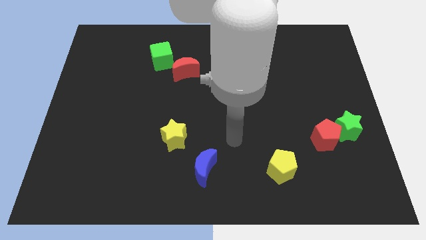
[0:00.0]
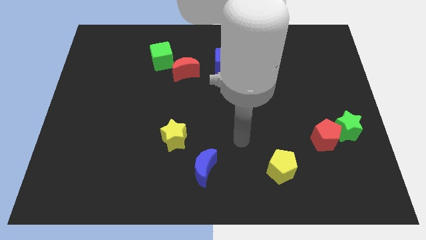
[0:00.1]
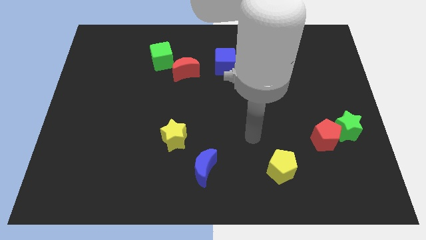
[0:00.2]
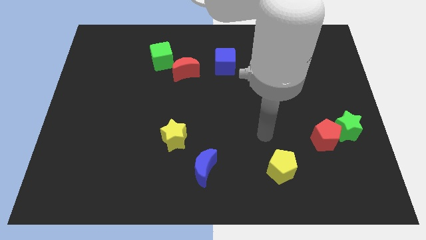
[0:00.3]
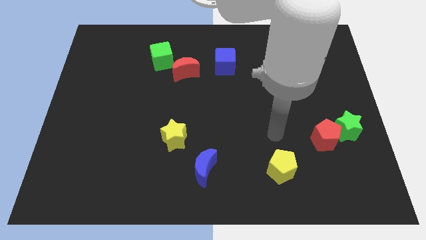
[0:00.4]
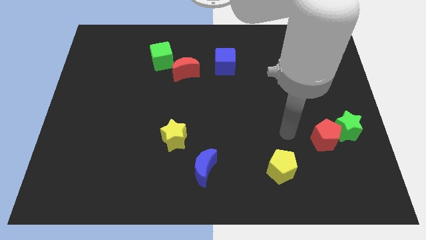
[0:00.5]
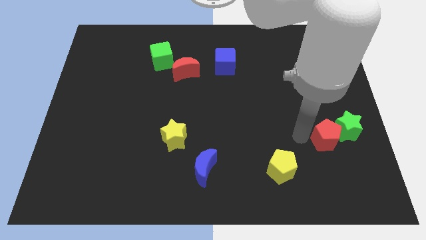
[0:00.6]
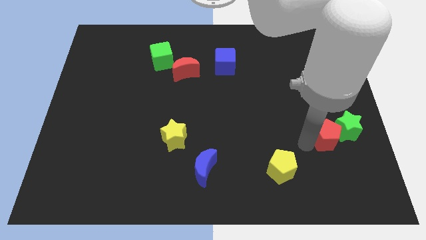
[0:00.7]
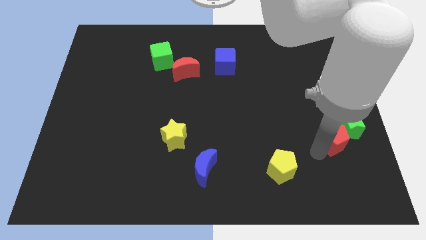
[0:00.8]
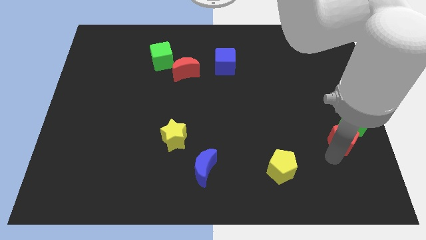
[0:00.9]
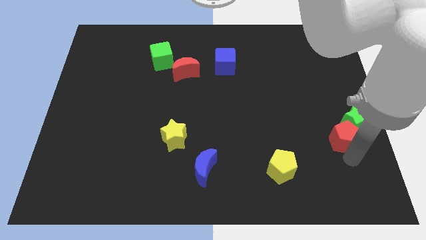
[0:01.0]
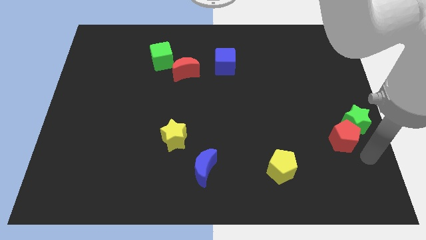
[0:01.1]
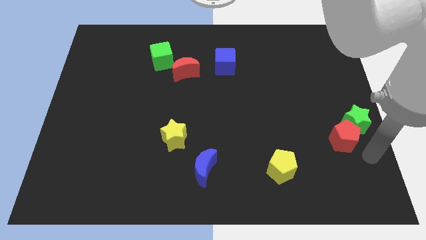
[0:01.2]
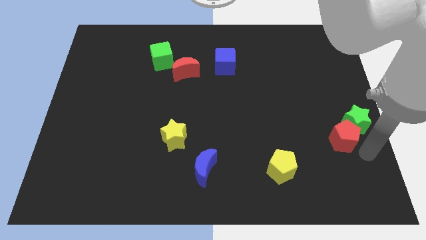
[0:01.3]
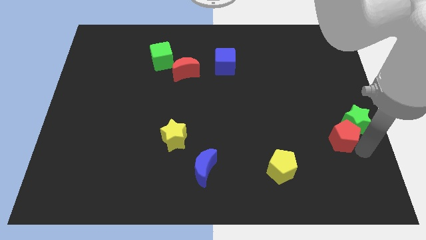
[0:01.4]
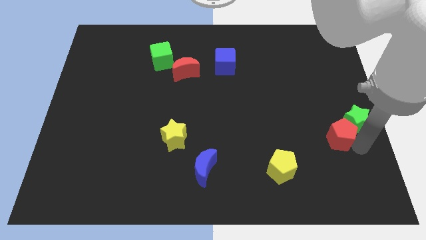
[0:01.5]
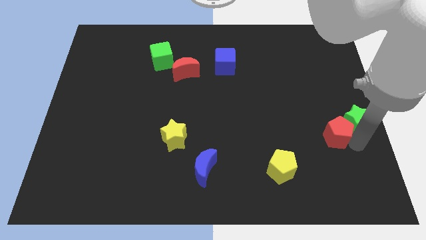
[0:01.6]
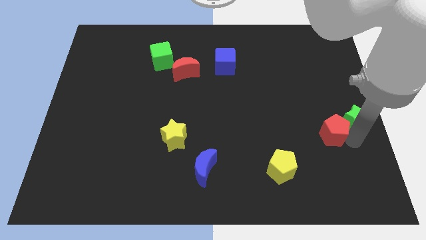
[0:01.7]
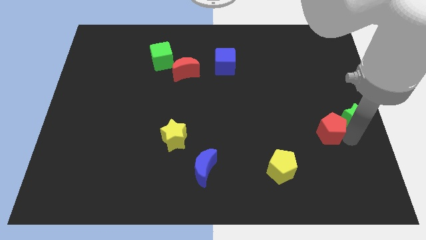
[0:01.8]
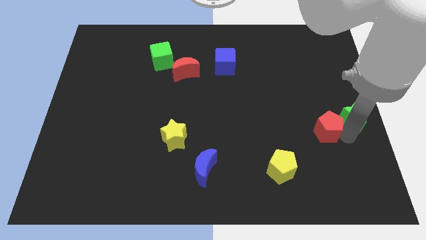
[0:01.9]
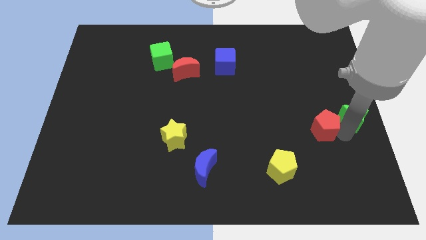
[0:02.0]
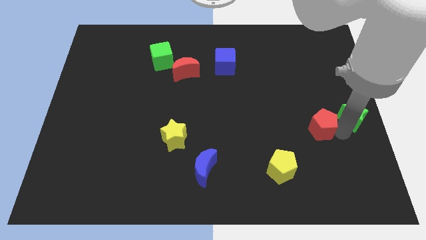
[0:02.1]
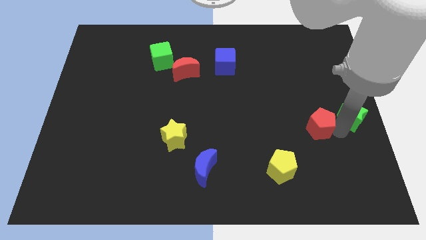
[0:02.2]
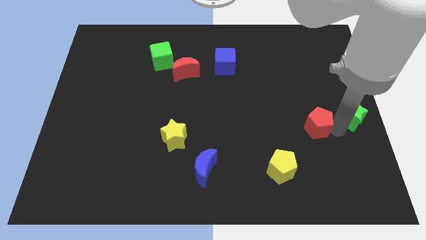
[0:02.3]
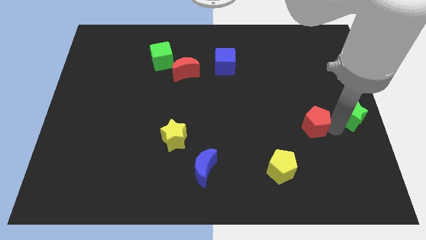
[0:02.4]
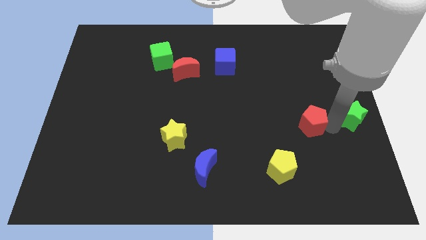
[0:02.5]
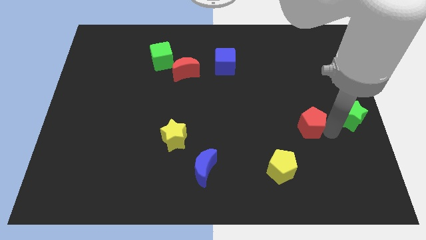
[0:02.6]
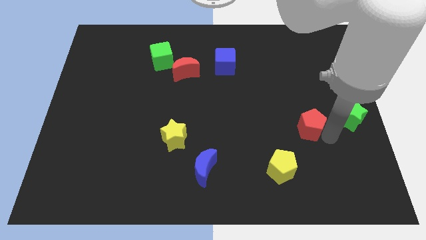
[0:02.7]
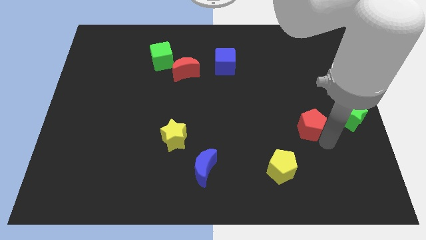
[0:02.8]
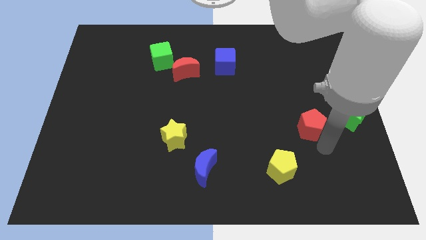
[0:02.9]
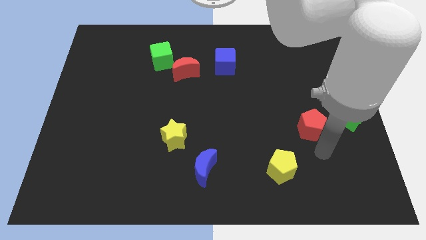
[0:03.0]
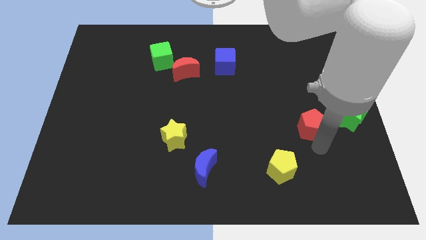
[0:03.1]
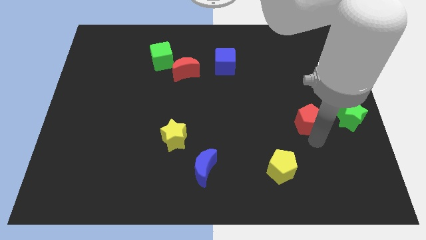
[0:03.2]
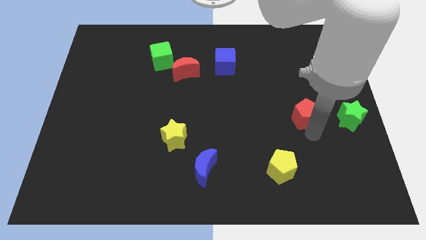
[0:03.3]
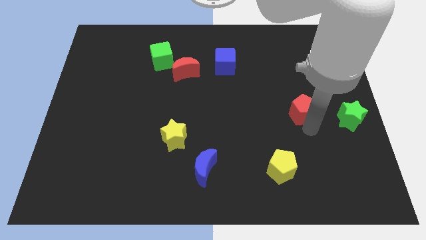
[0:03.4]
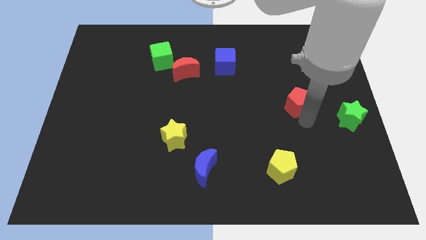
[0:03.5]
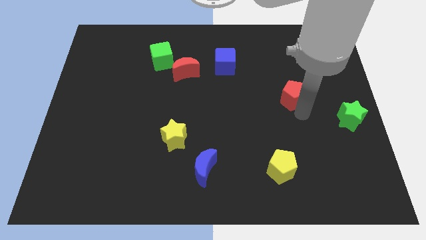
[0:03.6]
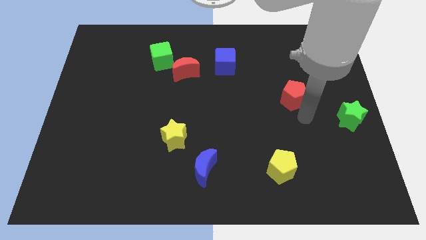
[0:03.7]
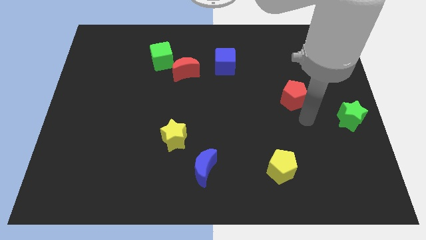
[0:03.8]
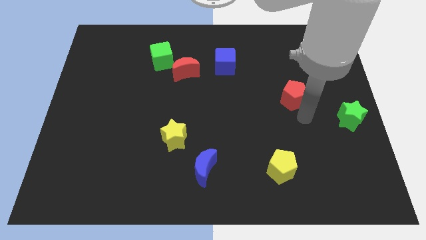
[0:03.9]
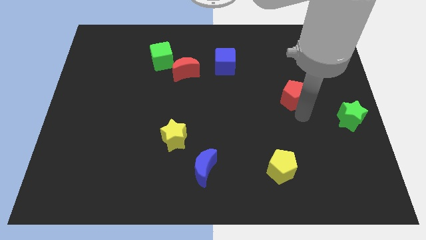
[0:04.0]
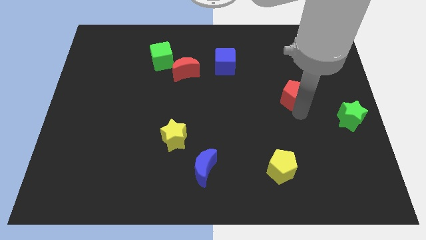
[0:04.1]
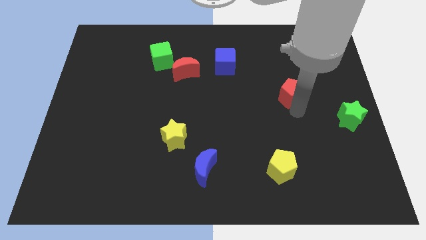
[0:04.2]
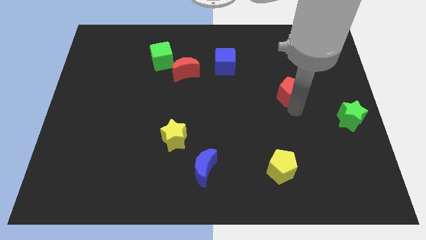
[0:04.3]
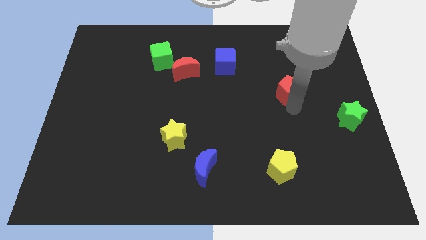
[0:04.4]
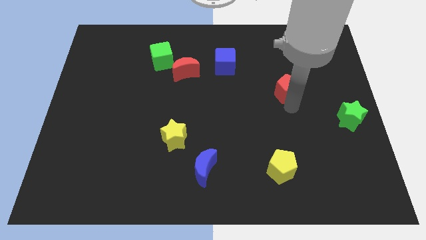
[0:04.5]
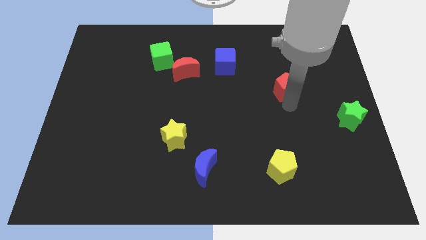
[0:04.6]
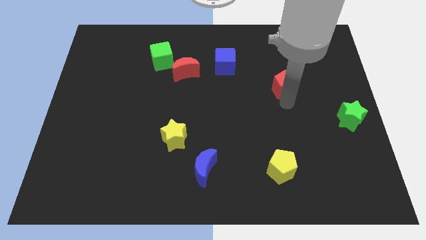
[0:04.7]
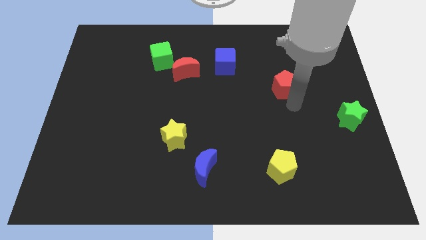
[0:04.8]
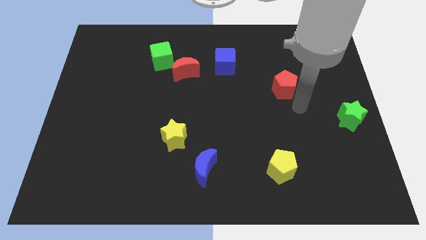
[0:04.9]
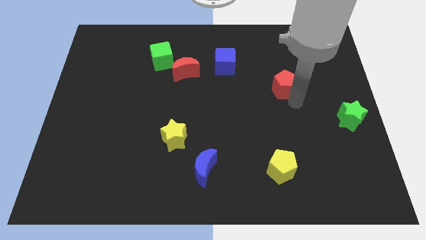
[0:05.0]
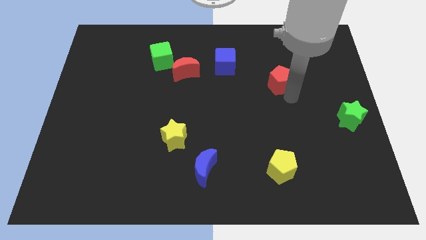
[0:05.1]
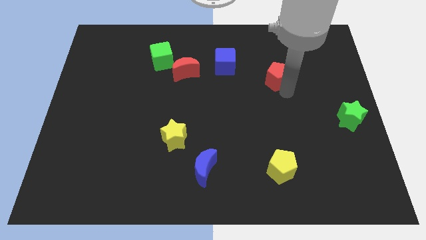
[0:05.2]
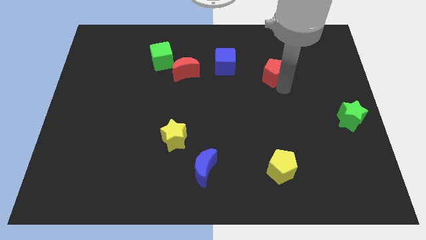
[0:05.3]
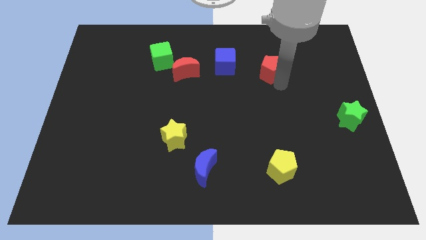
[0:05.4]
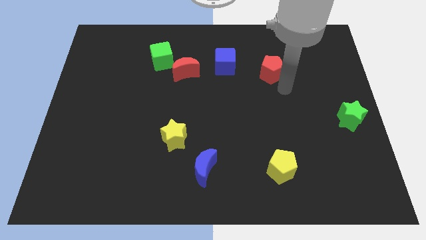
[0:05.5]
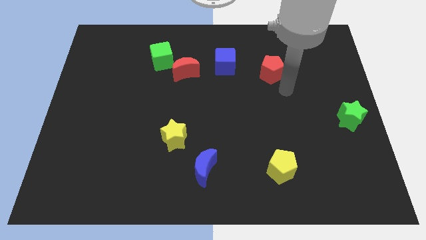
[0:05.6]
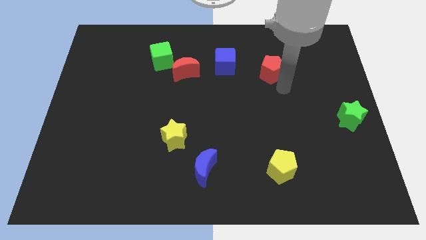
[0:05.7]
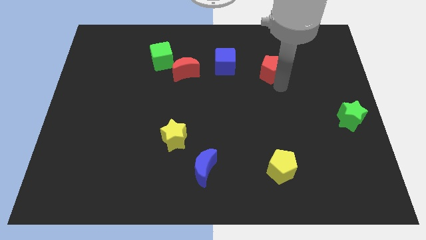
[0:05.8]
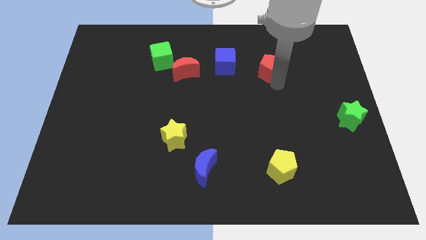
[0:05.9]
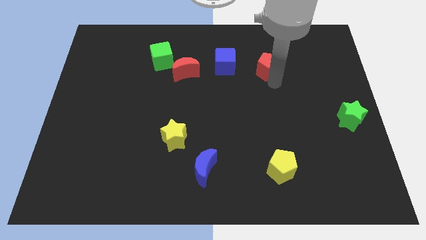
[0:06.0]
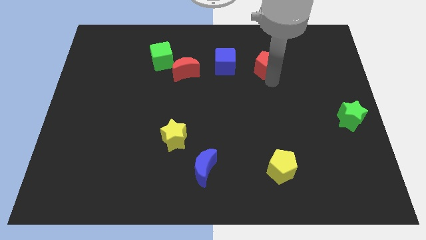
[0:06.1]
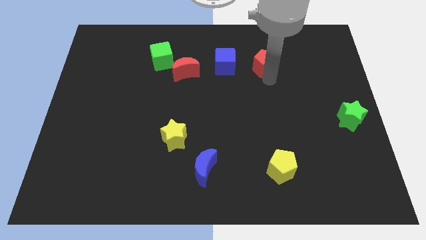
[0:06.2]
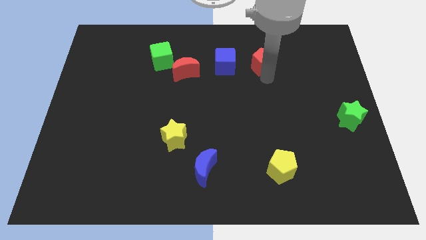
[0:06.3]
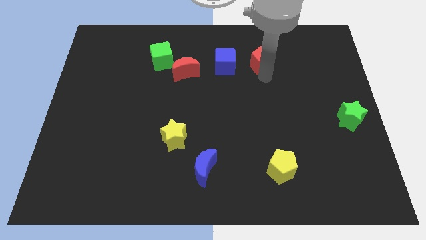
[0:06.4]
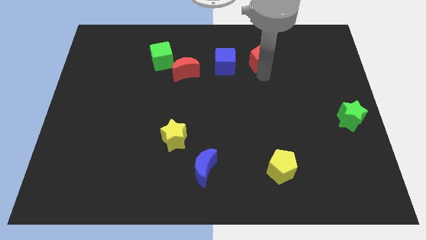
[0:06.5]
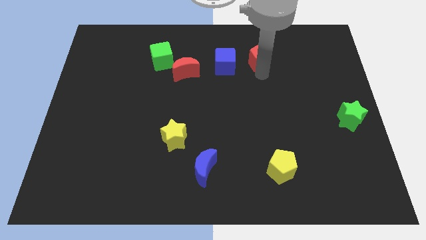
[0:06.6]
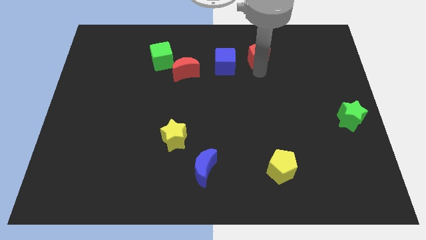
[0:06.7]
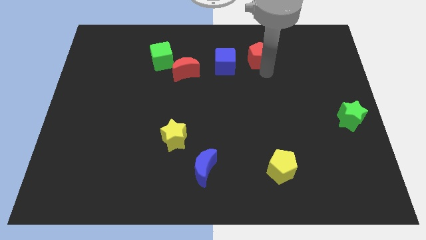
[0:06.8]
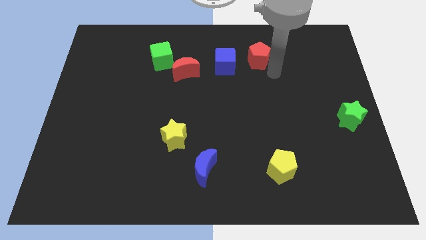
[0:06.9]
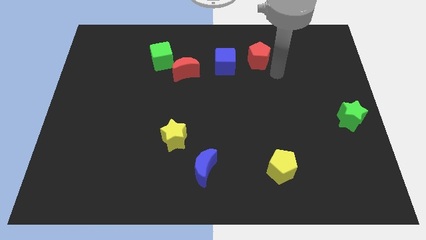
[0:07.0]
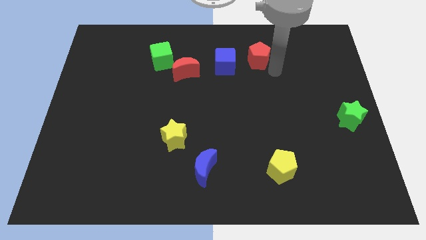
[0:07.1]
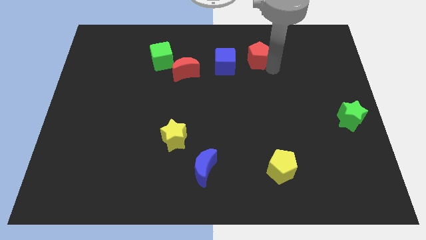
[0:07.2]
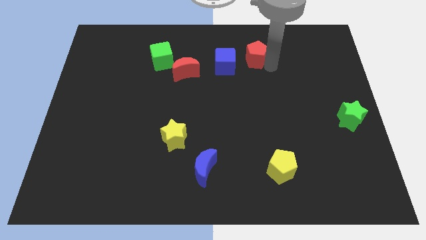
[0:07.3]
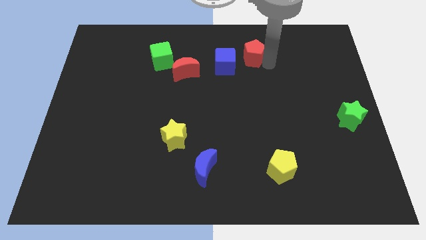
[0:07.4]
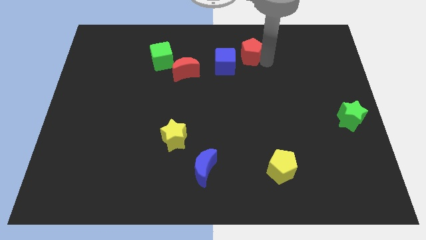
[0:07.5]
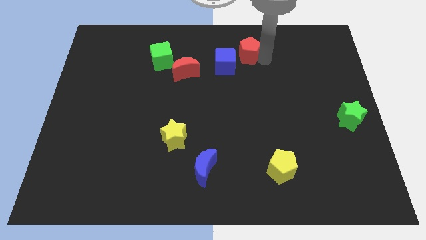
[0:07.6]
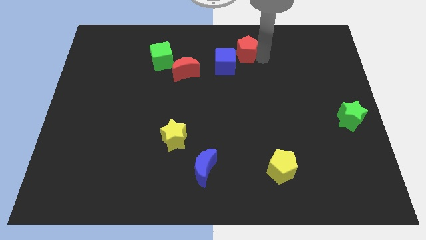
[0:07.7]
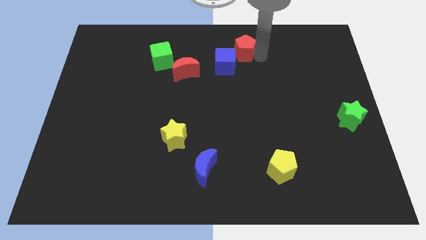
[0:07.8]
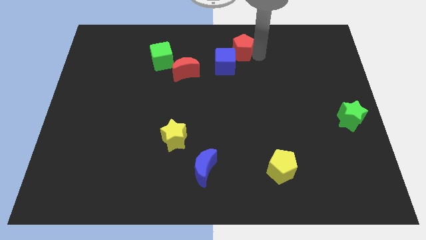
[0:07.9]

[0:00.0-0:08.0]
put the red pentagon to the top side
